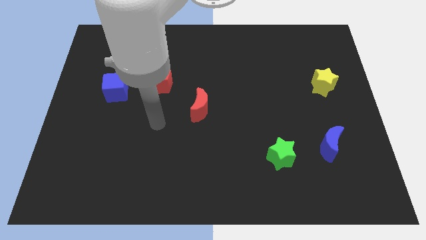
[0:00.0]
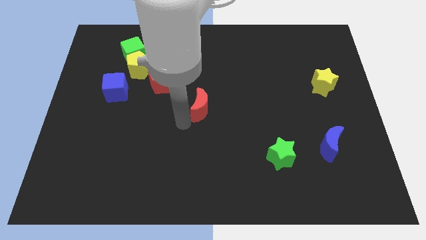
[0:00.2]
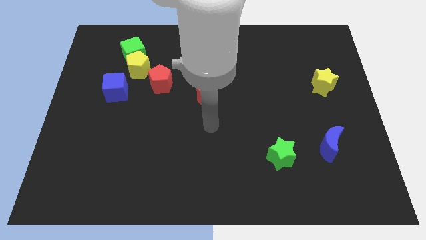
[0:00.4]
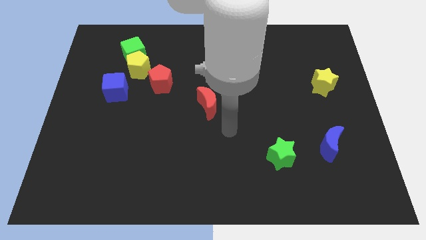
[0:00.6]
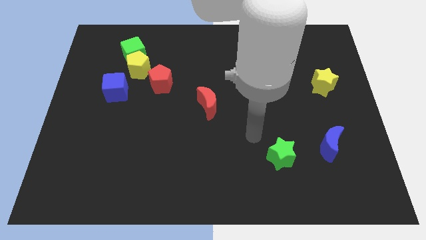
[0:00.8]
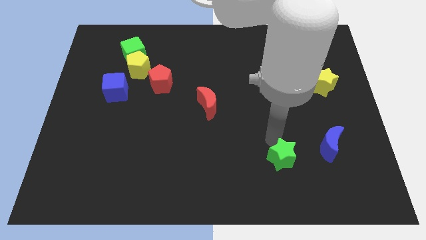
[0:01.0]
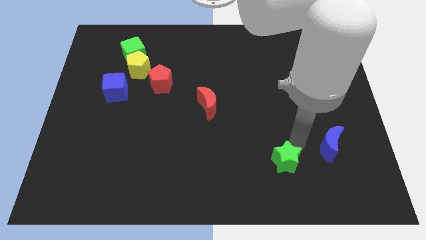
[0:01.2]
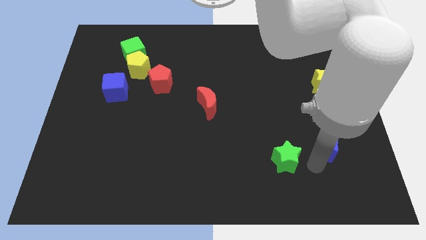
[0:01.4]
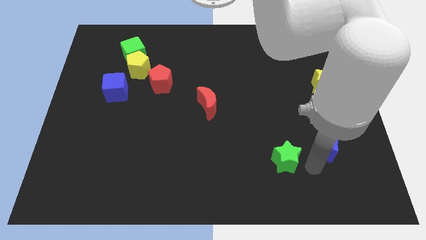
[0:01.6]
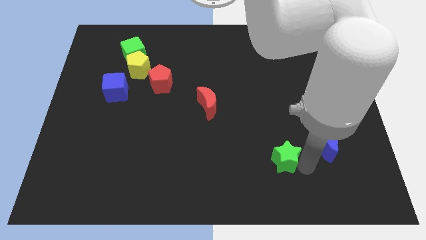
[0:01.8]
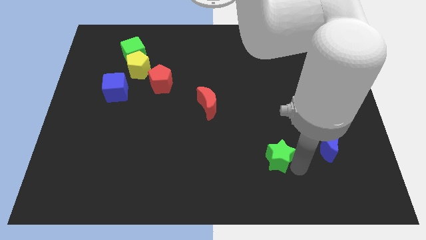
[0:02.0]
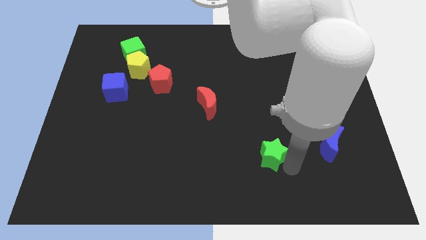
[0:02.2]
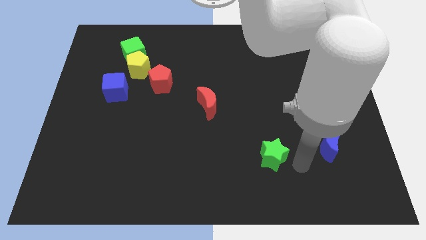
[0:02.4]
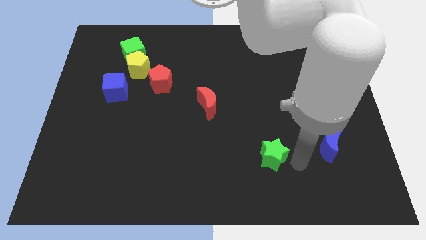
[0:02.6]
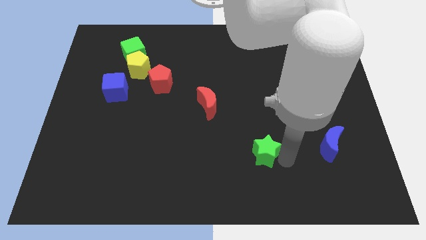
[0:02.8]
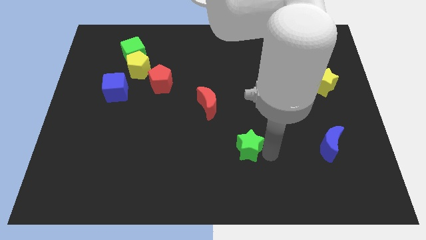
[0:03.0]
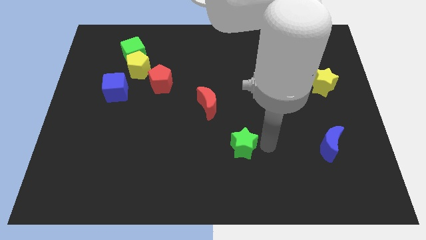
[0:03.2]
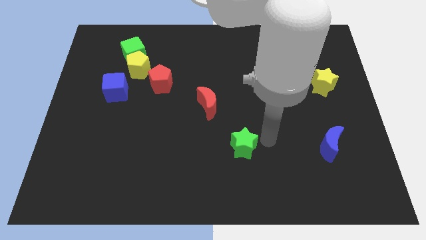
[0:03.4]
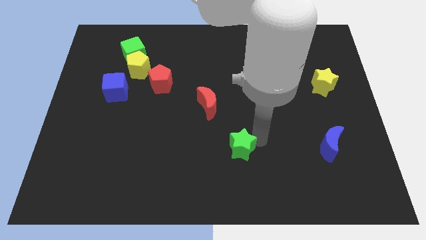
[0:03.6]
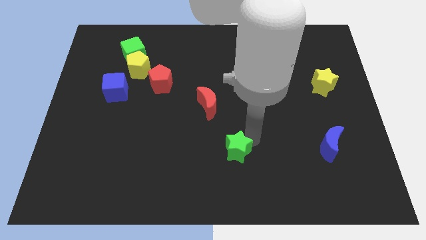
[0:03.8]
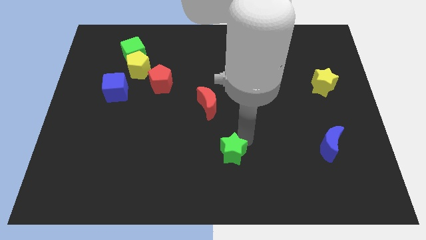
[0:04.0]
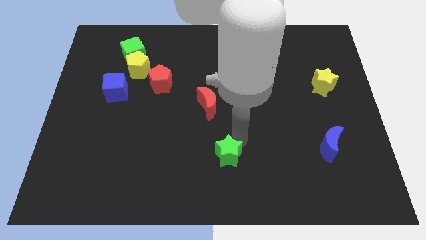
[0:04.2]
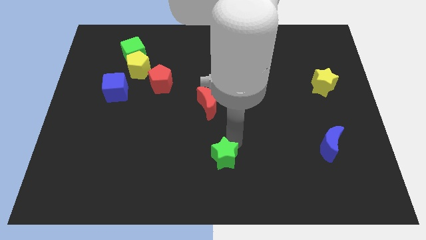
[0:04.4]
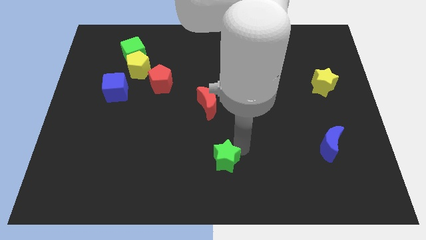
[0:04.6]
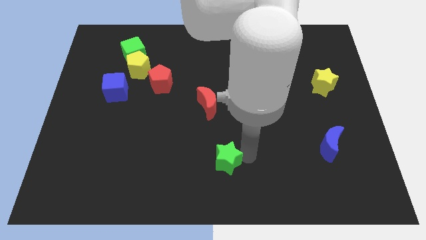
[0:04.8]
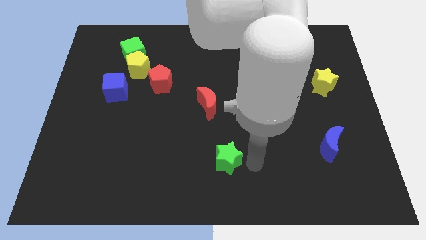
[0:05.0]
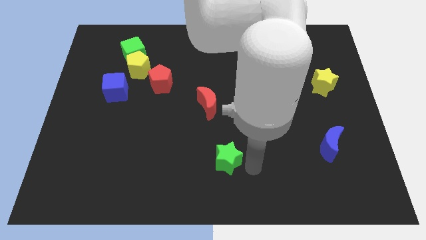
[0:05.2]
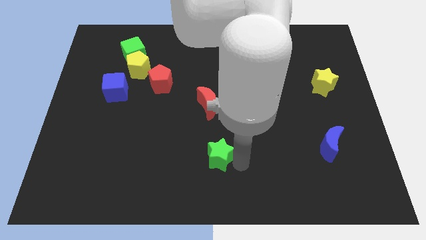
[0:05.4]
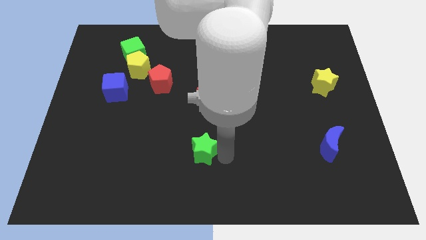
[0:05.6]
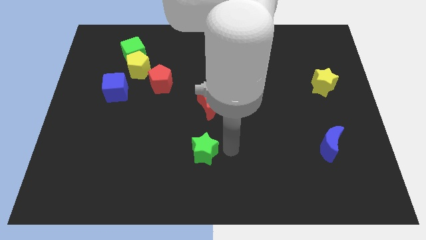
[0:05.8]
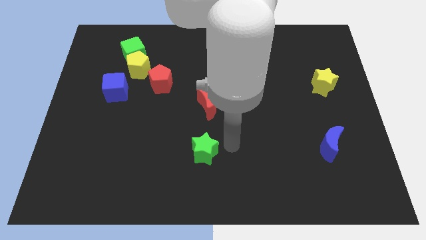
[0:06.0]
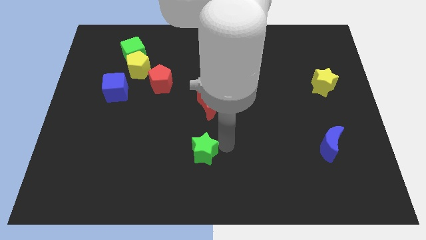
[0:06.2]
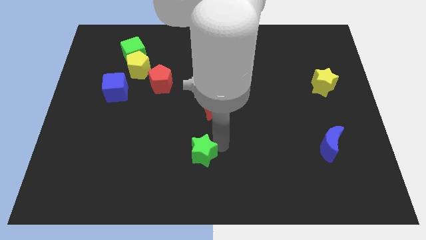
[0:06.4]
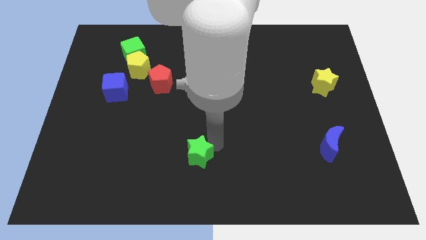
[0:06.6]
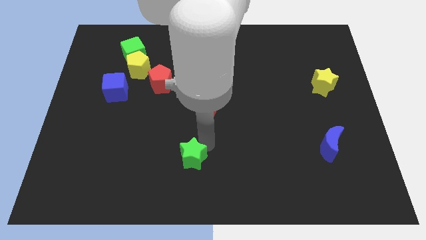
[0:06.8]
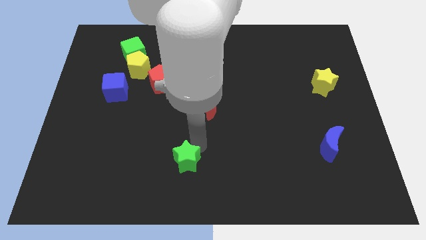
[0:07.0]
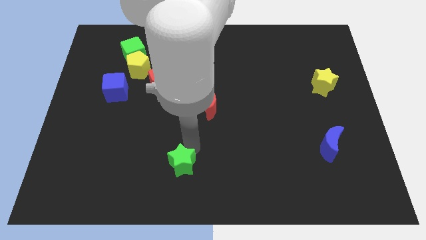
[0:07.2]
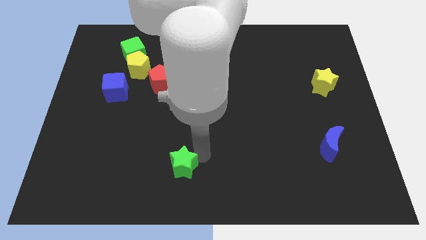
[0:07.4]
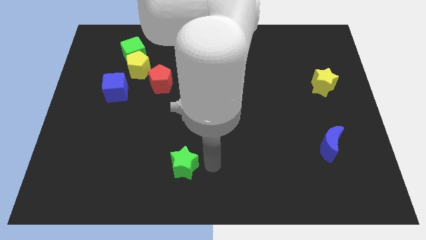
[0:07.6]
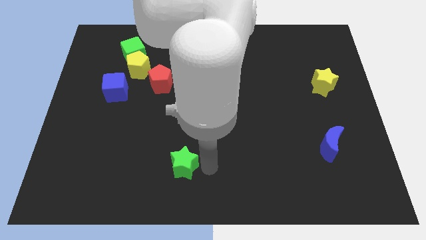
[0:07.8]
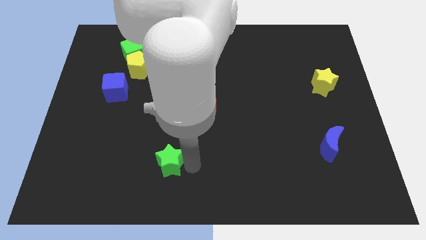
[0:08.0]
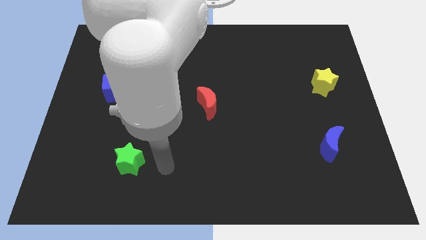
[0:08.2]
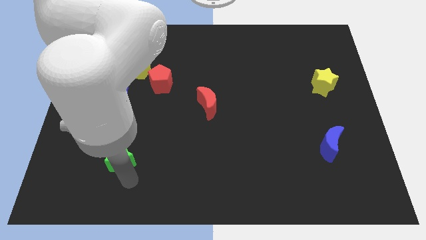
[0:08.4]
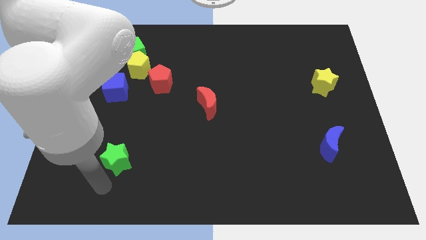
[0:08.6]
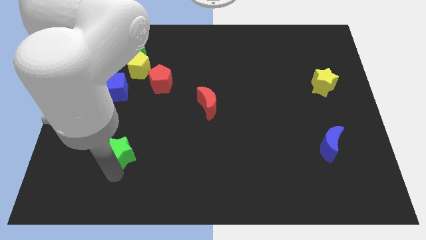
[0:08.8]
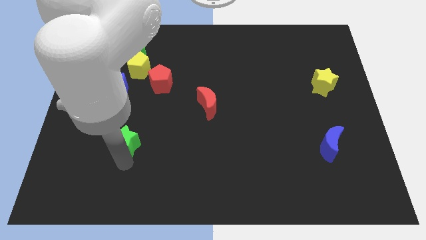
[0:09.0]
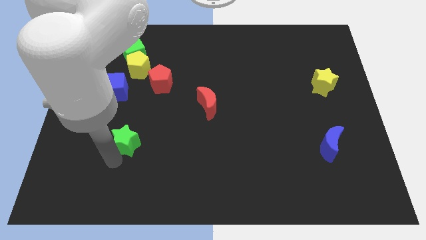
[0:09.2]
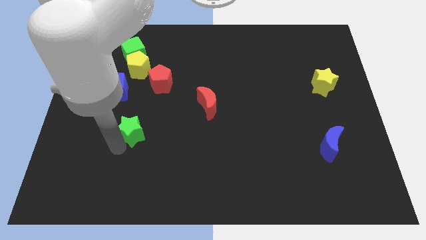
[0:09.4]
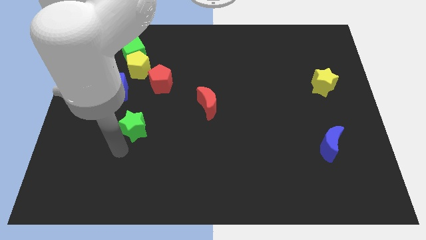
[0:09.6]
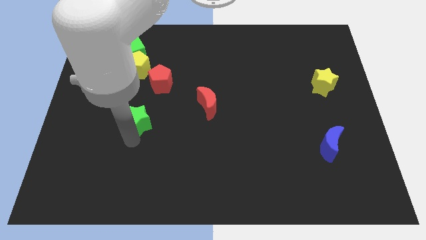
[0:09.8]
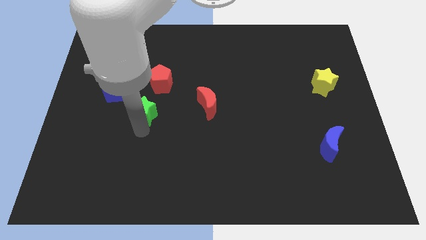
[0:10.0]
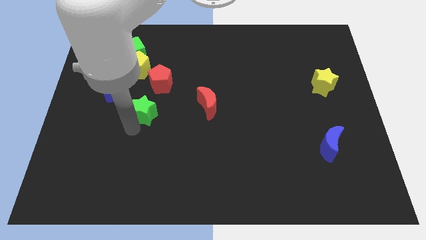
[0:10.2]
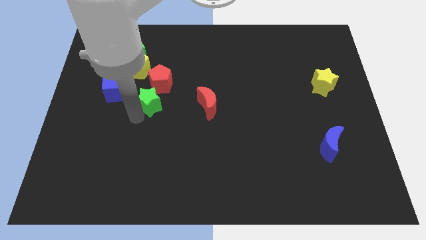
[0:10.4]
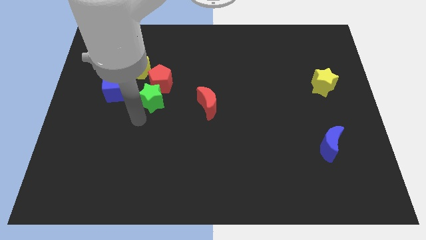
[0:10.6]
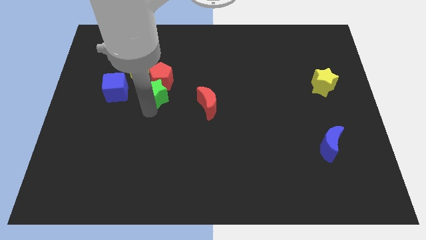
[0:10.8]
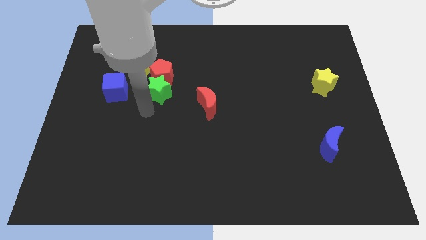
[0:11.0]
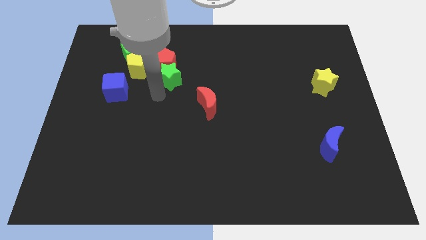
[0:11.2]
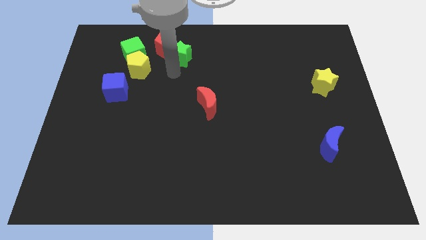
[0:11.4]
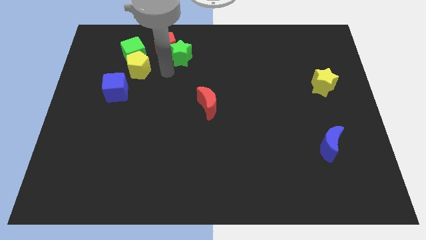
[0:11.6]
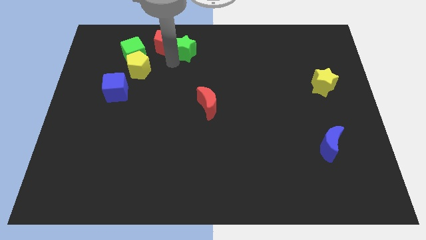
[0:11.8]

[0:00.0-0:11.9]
put the green star to the top side

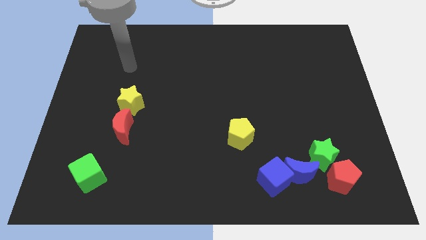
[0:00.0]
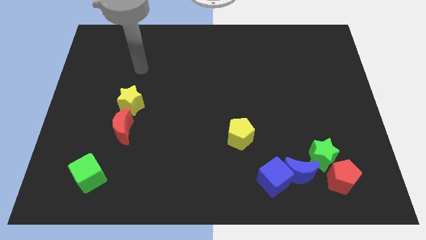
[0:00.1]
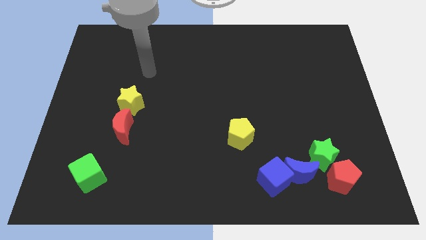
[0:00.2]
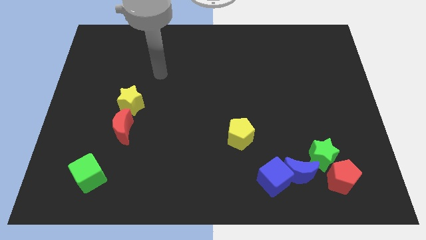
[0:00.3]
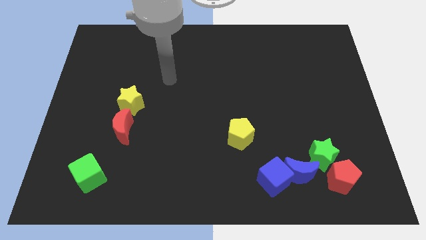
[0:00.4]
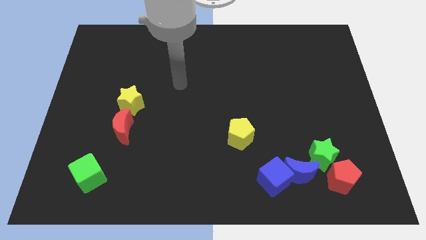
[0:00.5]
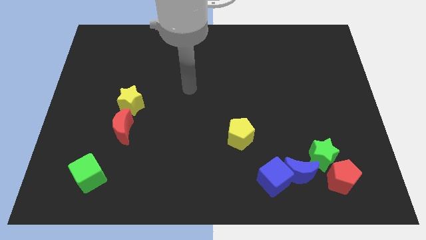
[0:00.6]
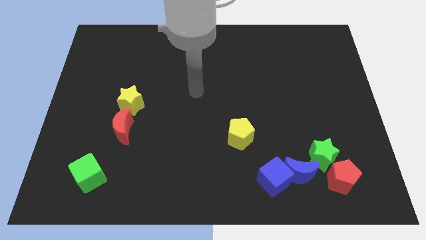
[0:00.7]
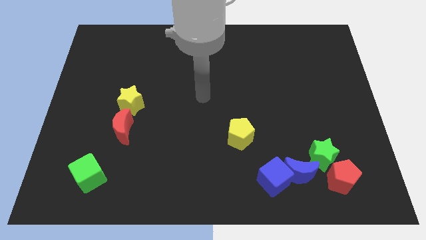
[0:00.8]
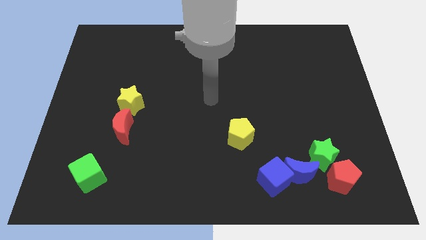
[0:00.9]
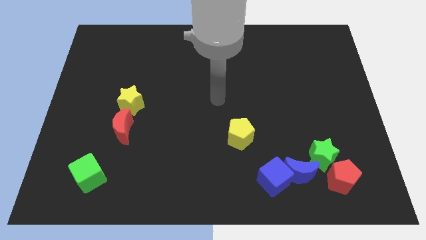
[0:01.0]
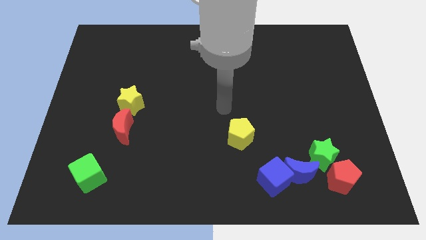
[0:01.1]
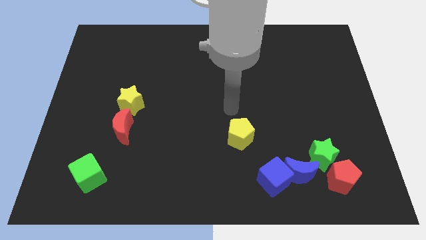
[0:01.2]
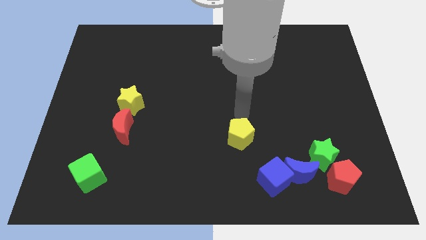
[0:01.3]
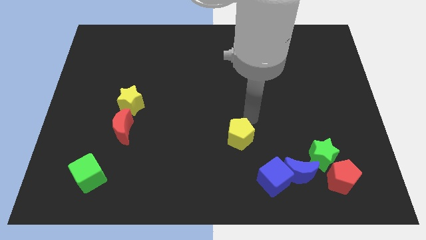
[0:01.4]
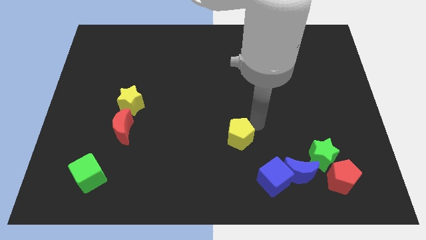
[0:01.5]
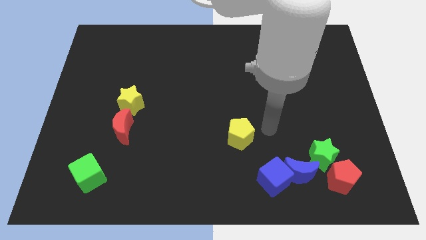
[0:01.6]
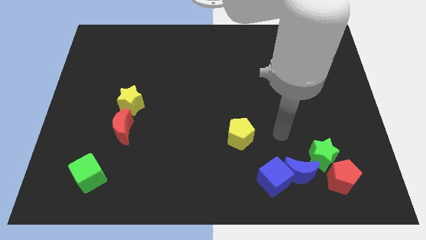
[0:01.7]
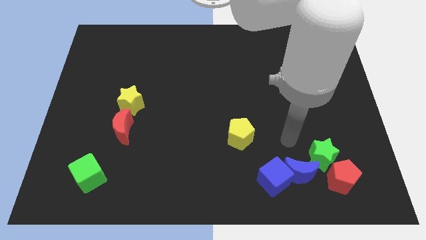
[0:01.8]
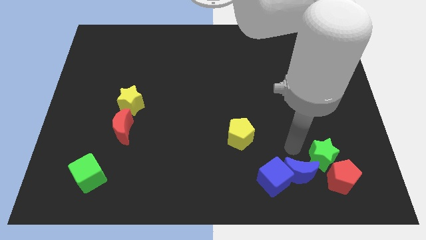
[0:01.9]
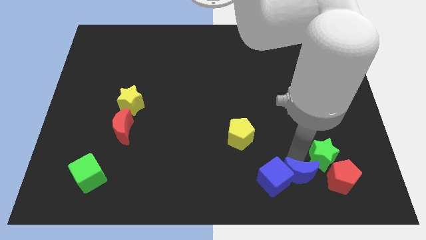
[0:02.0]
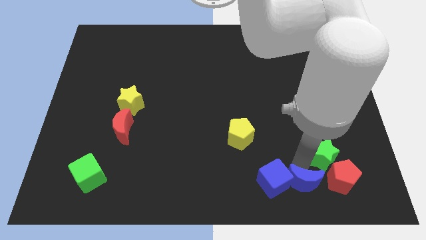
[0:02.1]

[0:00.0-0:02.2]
move the blue cube to the bottom side
